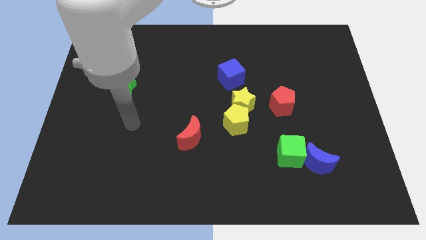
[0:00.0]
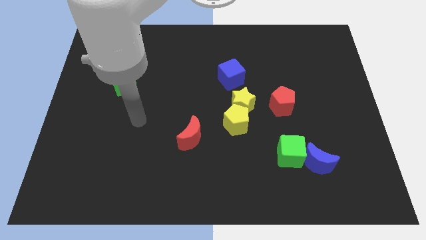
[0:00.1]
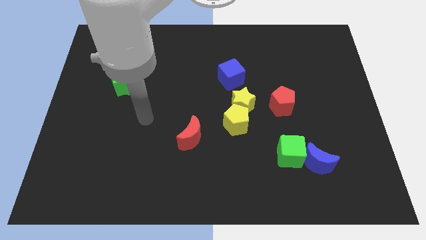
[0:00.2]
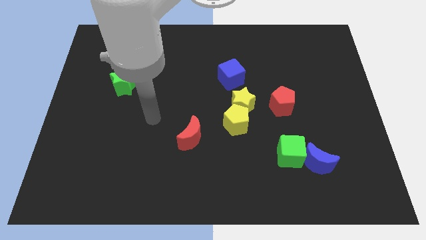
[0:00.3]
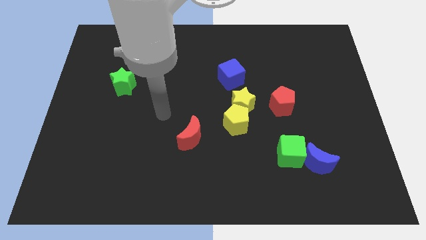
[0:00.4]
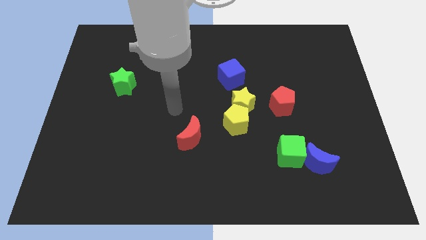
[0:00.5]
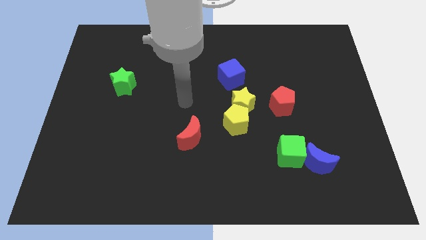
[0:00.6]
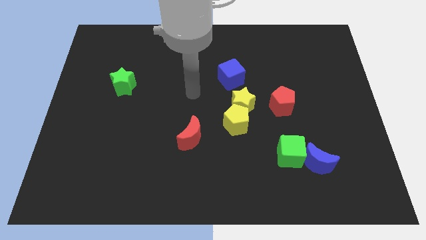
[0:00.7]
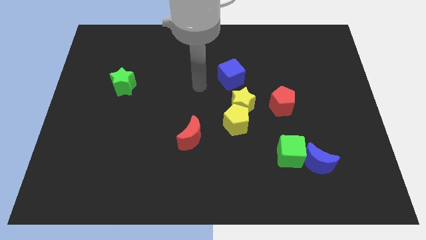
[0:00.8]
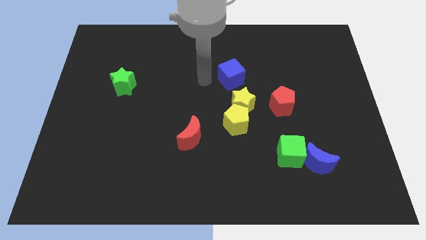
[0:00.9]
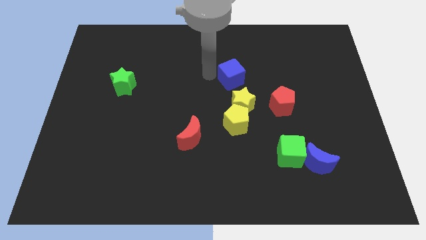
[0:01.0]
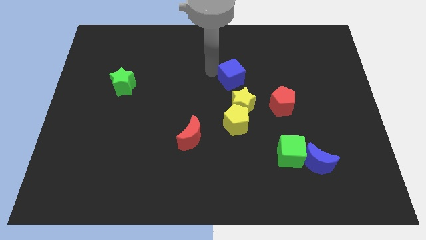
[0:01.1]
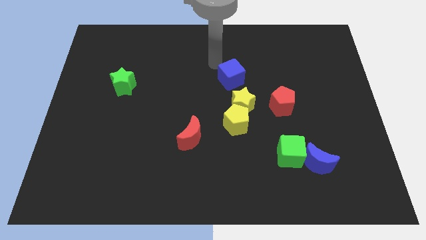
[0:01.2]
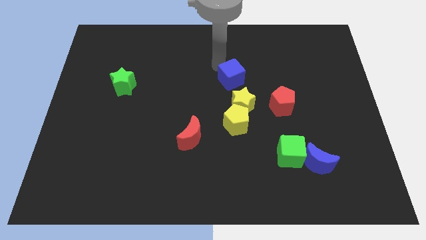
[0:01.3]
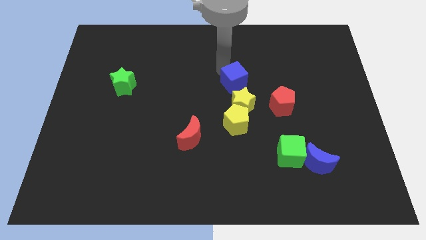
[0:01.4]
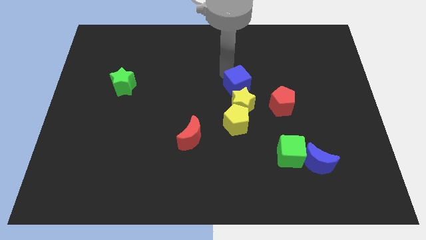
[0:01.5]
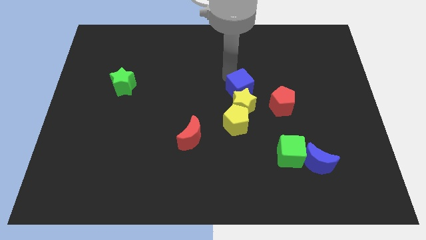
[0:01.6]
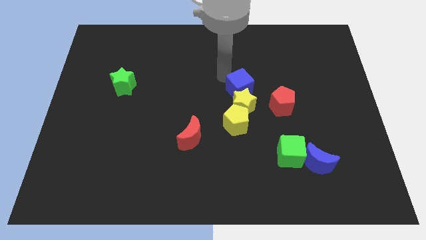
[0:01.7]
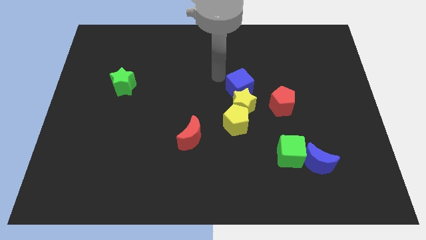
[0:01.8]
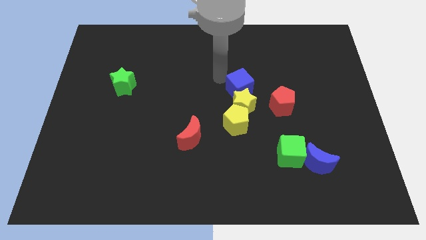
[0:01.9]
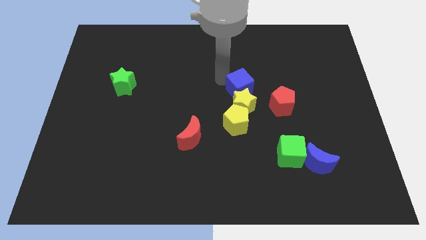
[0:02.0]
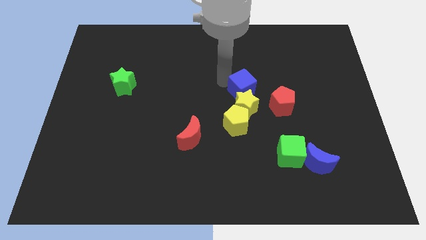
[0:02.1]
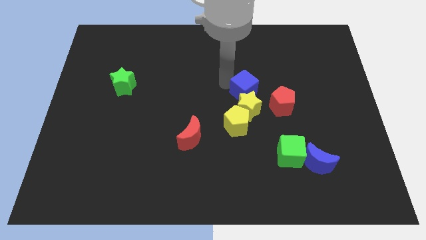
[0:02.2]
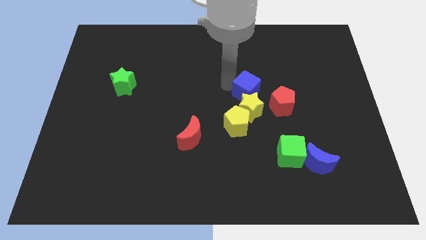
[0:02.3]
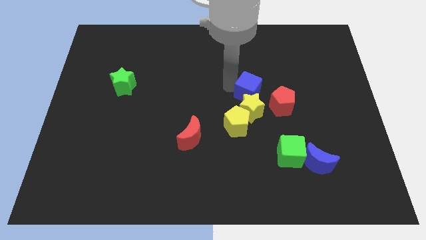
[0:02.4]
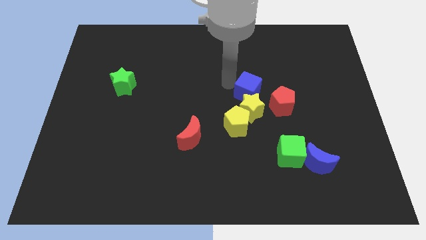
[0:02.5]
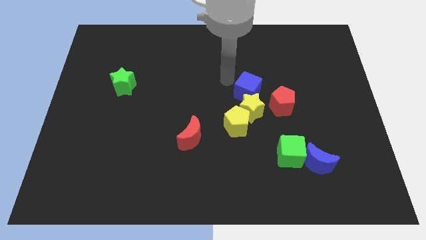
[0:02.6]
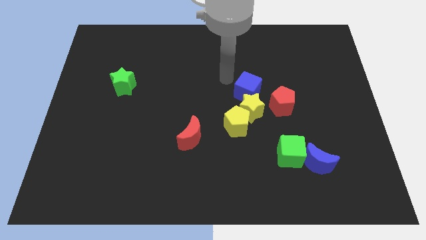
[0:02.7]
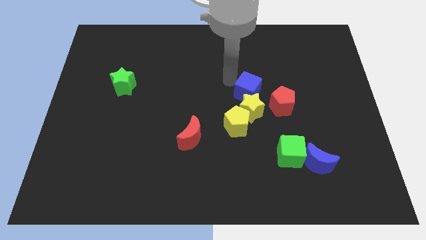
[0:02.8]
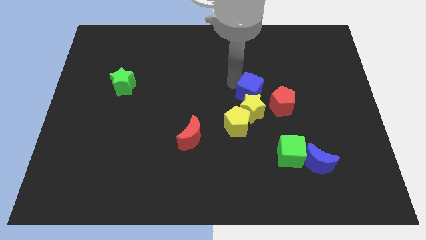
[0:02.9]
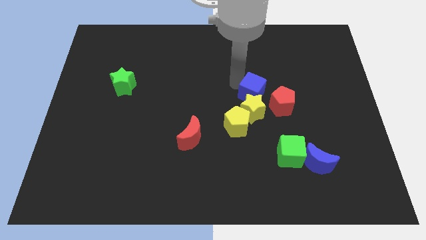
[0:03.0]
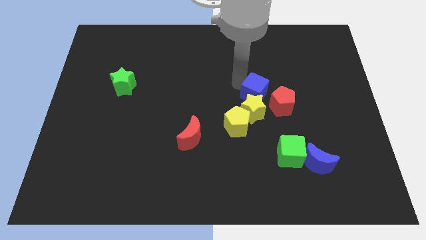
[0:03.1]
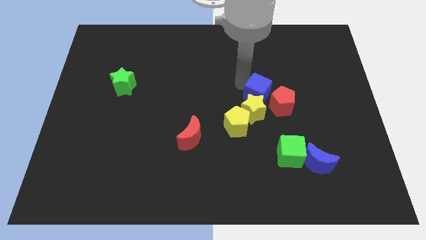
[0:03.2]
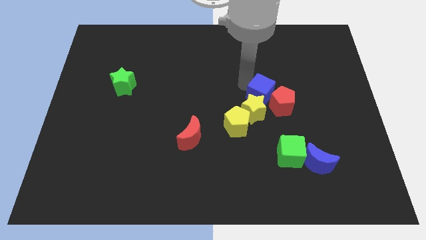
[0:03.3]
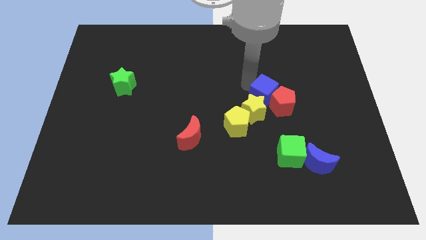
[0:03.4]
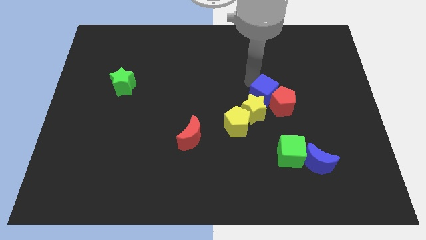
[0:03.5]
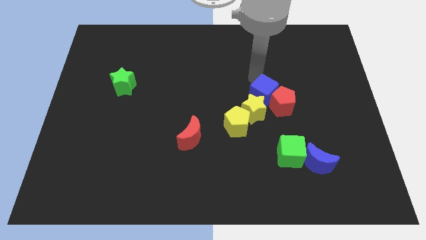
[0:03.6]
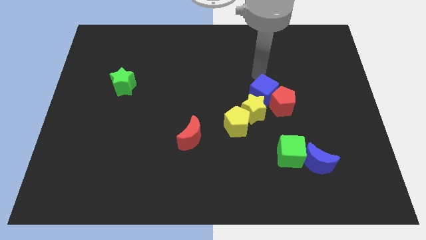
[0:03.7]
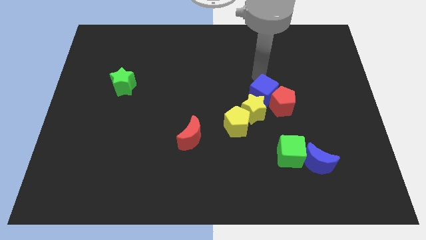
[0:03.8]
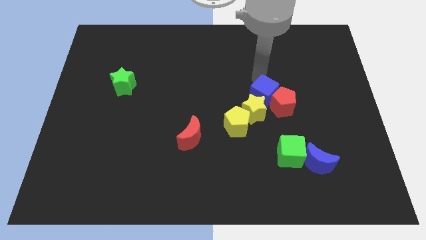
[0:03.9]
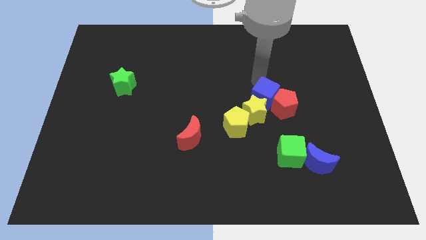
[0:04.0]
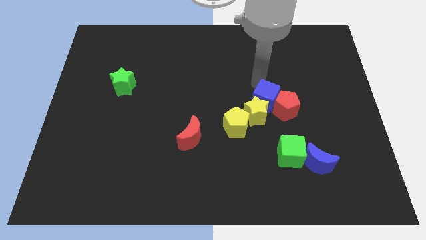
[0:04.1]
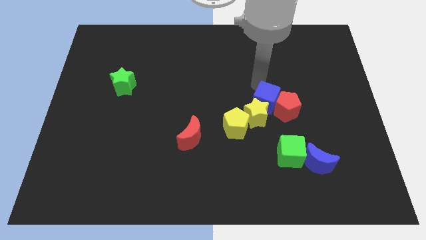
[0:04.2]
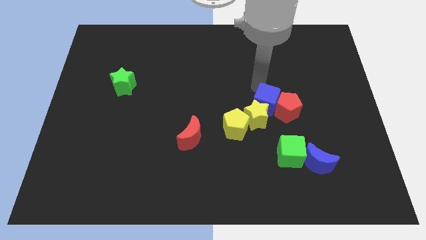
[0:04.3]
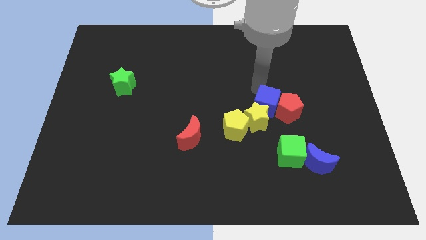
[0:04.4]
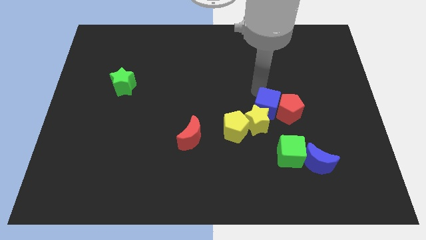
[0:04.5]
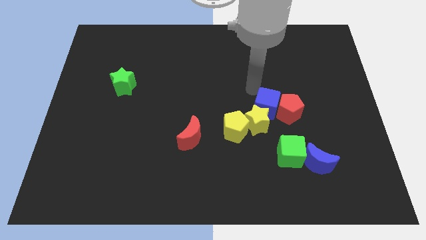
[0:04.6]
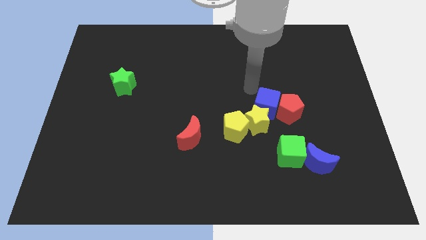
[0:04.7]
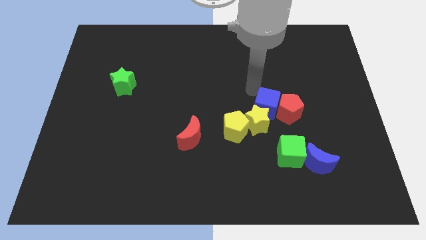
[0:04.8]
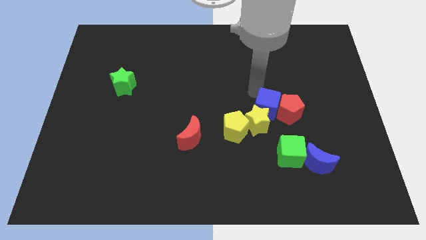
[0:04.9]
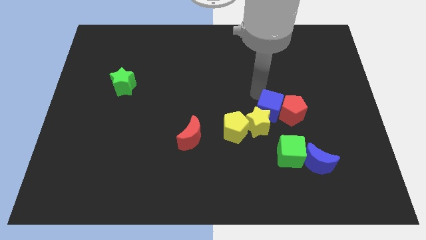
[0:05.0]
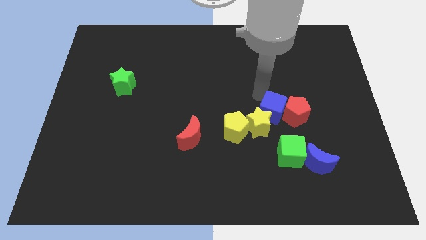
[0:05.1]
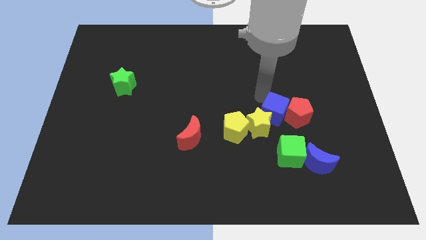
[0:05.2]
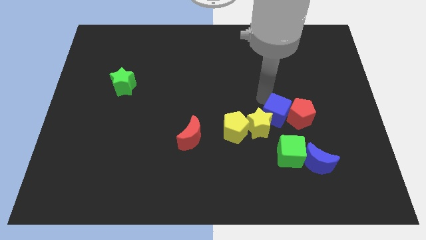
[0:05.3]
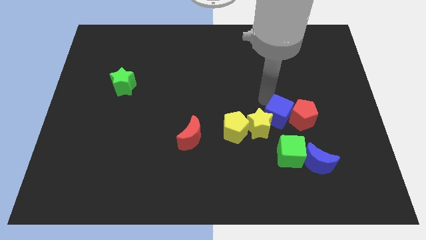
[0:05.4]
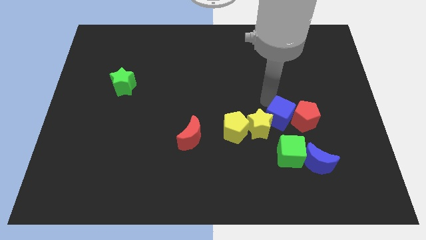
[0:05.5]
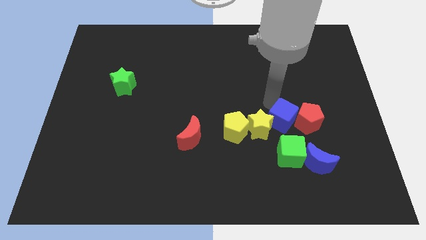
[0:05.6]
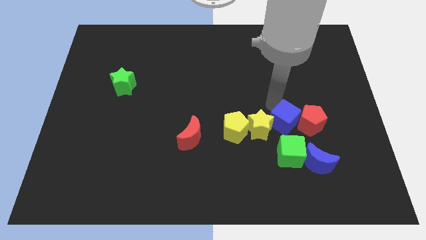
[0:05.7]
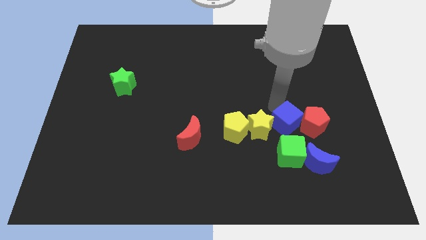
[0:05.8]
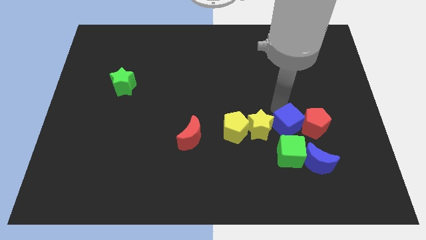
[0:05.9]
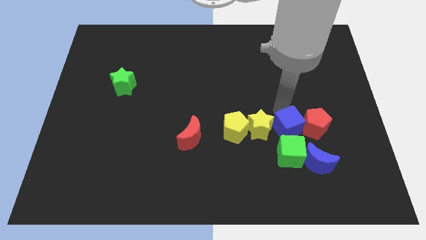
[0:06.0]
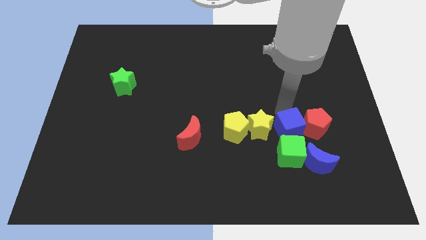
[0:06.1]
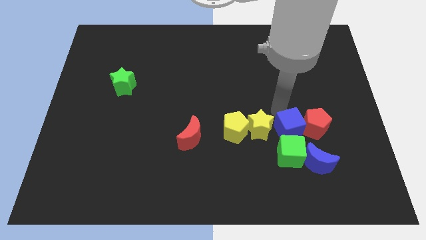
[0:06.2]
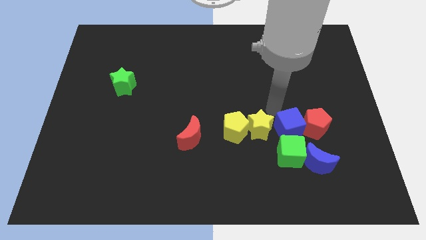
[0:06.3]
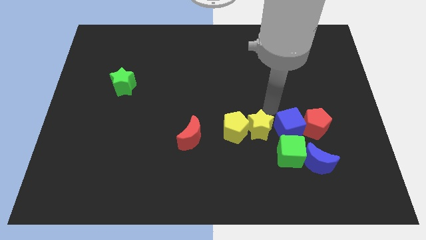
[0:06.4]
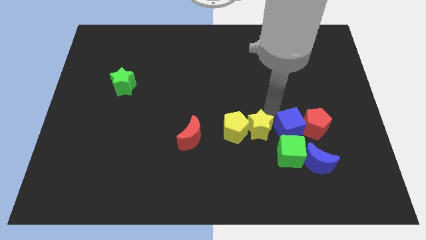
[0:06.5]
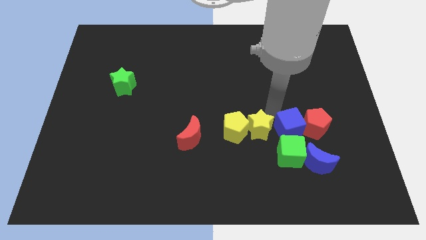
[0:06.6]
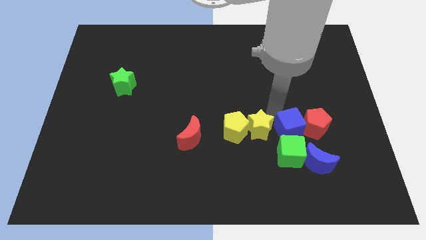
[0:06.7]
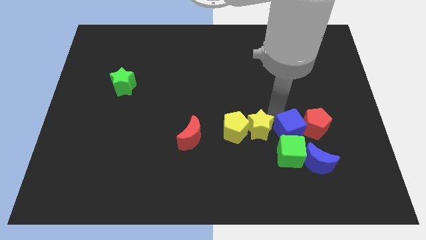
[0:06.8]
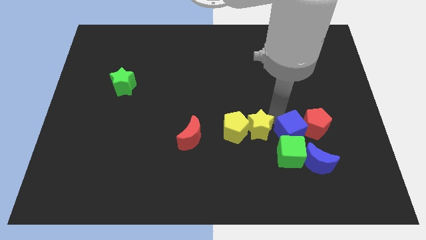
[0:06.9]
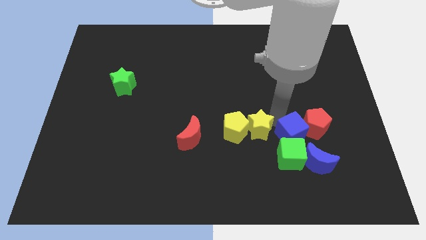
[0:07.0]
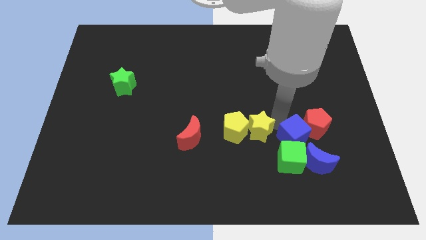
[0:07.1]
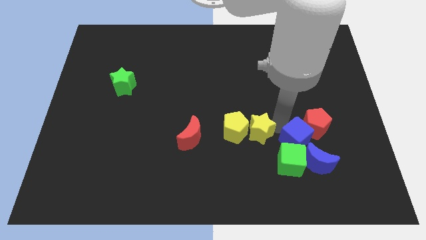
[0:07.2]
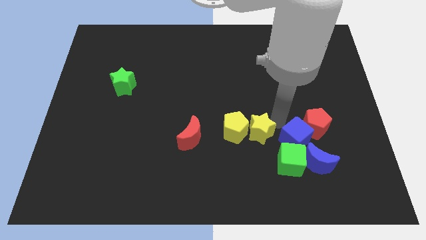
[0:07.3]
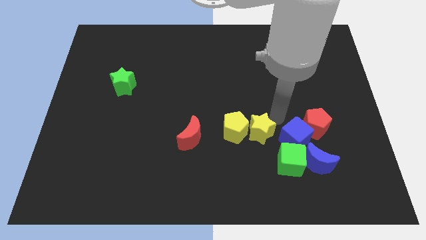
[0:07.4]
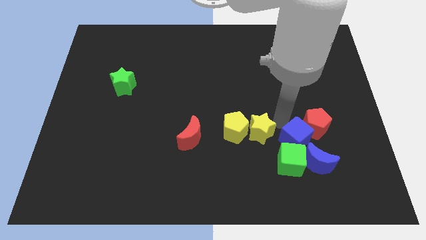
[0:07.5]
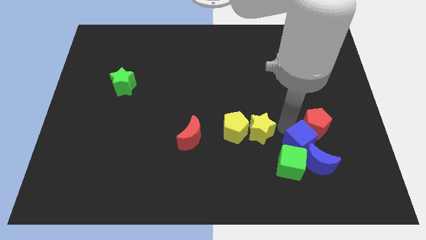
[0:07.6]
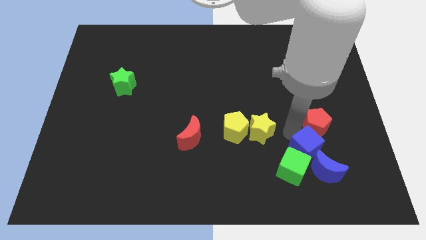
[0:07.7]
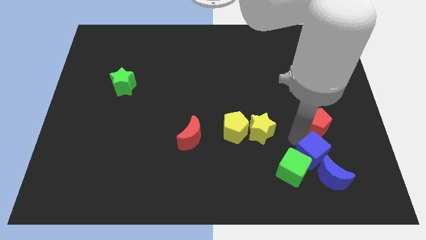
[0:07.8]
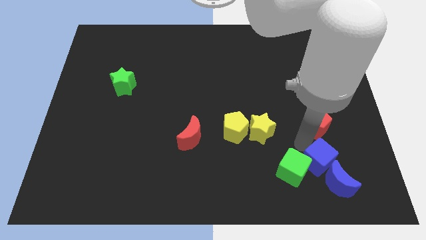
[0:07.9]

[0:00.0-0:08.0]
put the blue cube to the blue moon
